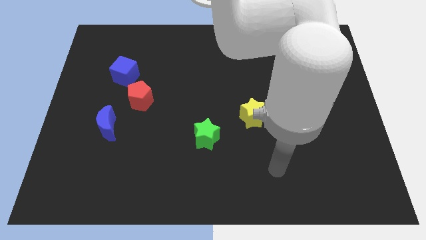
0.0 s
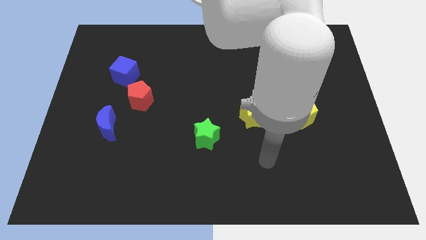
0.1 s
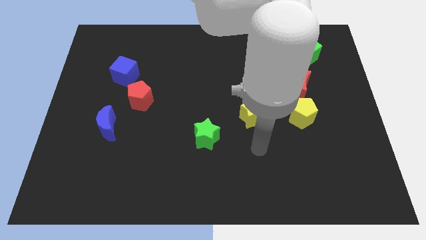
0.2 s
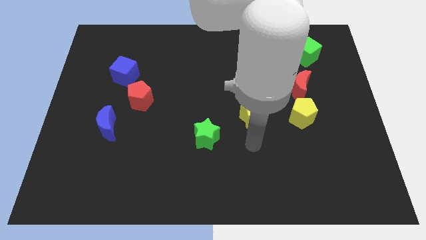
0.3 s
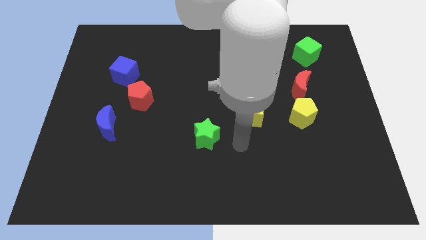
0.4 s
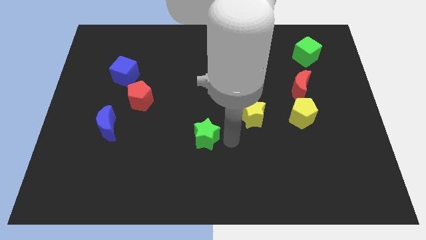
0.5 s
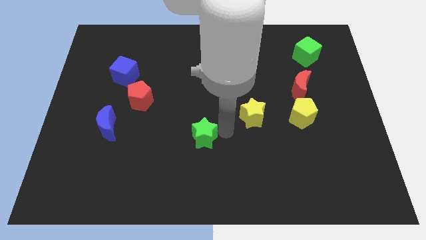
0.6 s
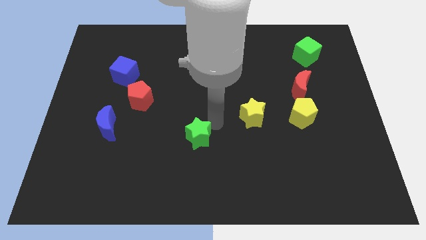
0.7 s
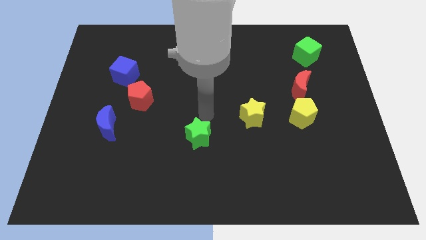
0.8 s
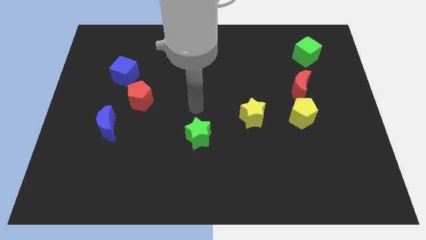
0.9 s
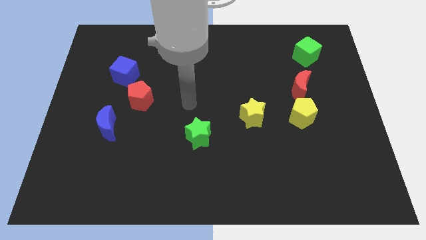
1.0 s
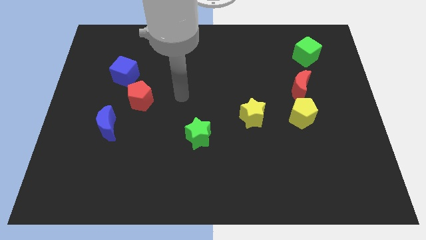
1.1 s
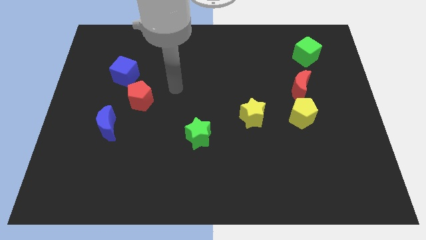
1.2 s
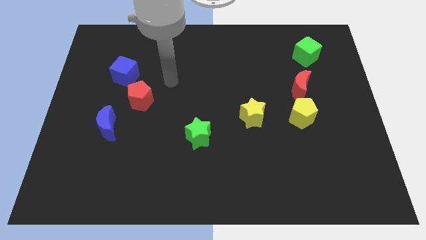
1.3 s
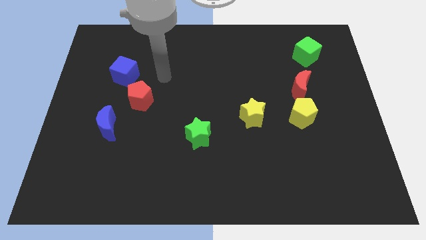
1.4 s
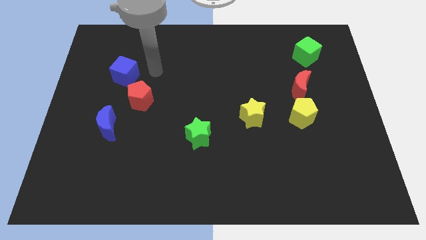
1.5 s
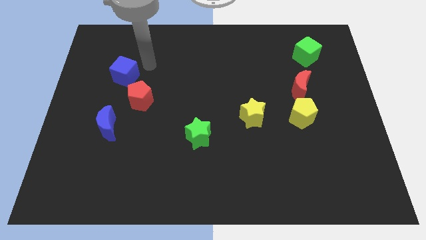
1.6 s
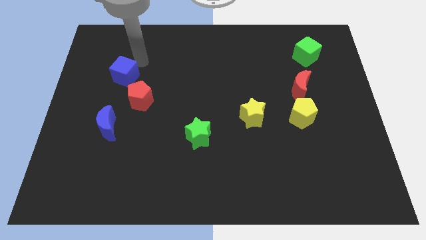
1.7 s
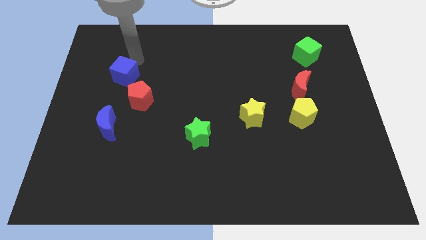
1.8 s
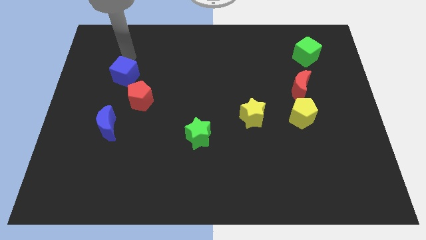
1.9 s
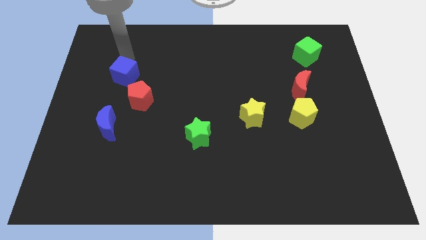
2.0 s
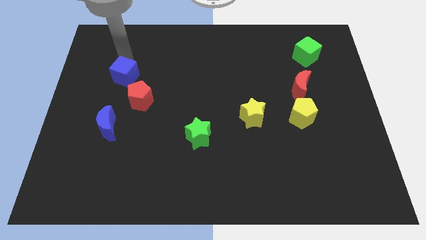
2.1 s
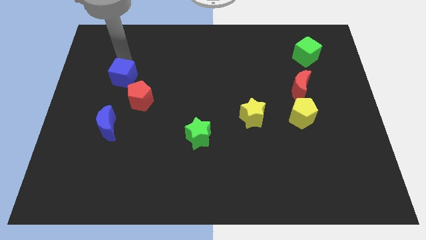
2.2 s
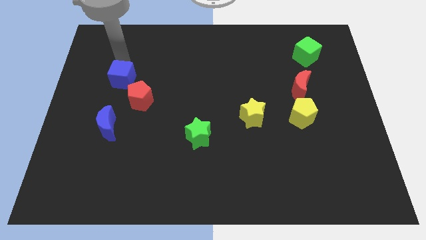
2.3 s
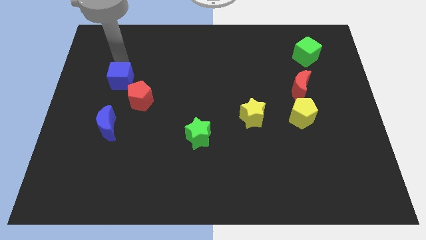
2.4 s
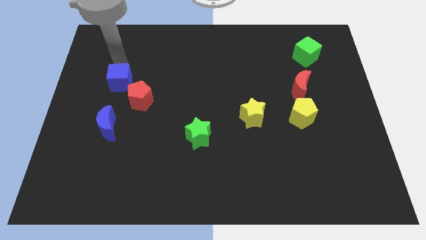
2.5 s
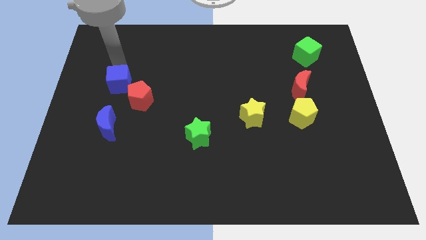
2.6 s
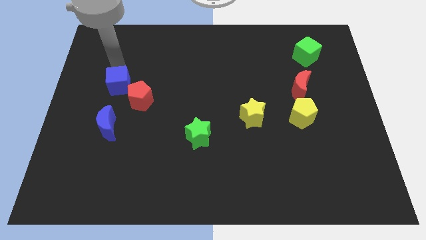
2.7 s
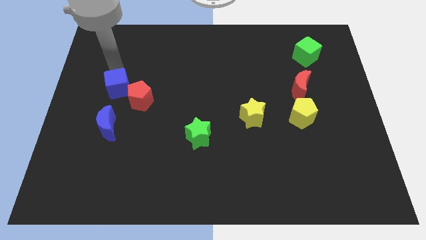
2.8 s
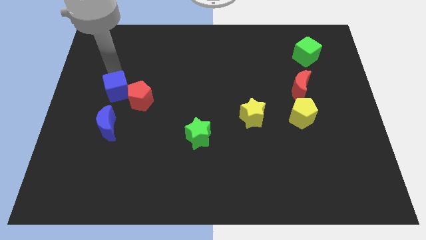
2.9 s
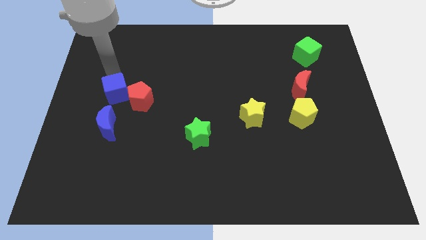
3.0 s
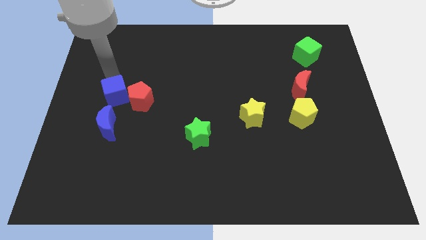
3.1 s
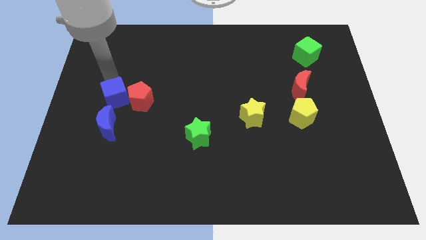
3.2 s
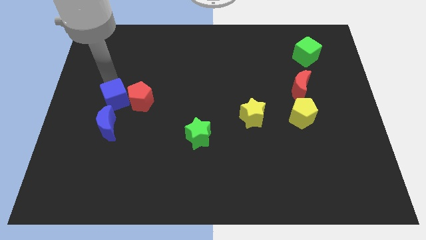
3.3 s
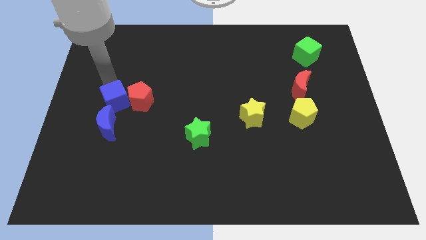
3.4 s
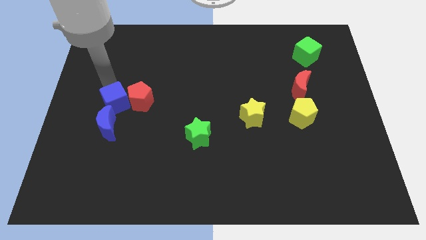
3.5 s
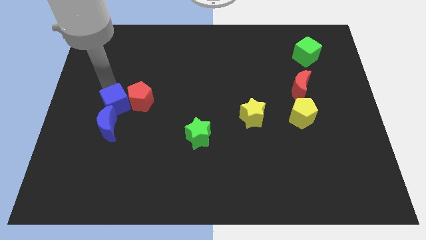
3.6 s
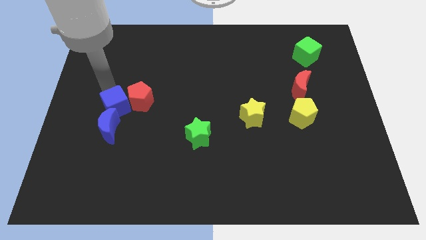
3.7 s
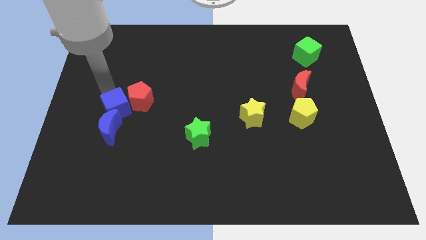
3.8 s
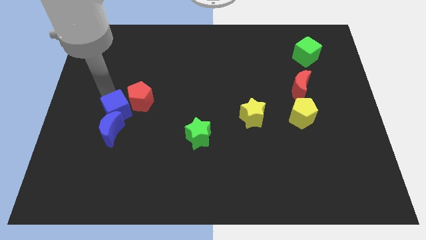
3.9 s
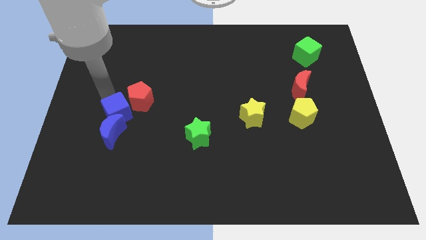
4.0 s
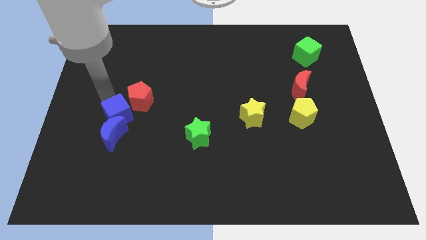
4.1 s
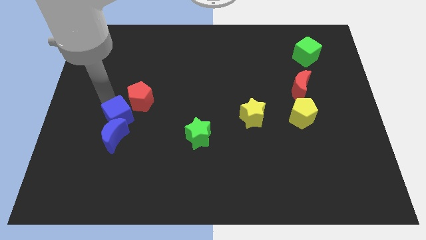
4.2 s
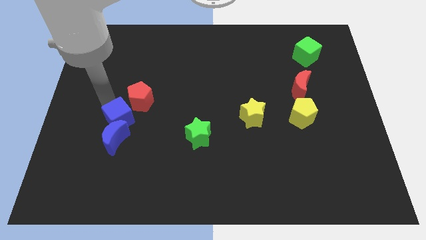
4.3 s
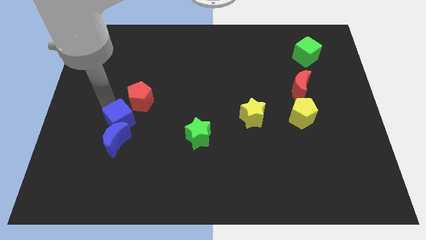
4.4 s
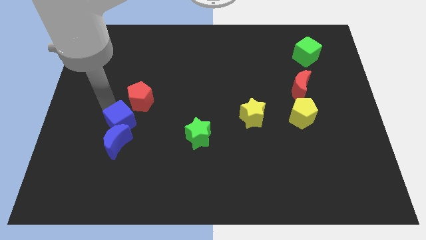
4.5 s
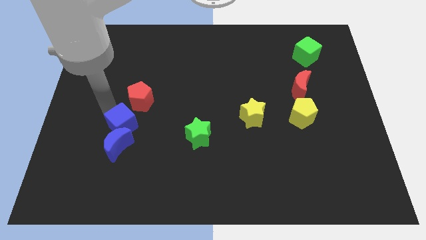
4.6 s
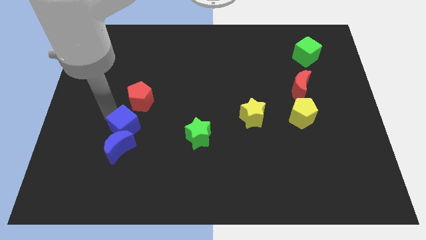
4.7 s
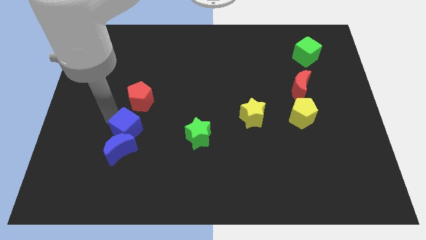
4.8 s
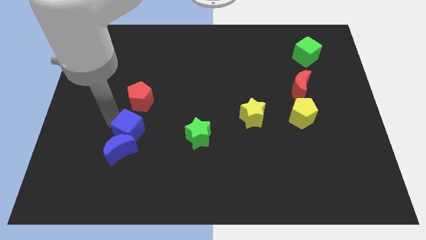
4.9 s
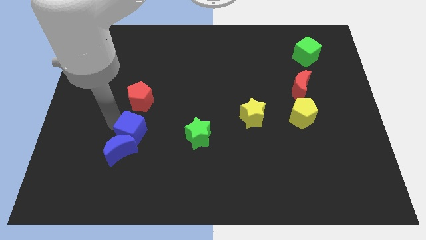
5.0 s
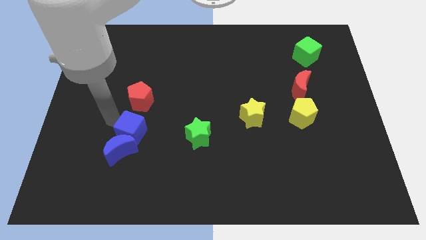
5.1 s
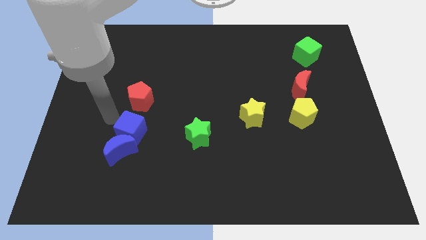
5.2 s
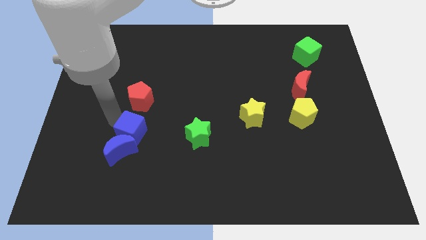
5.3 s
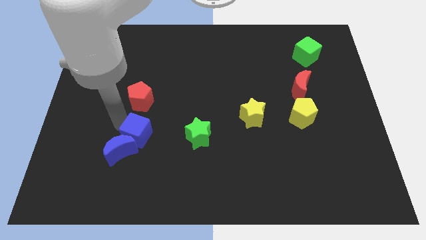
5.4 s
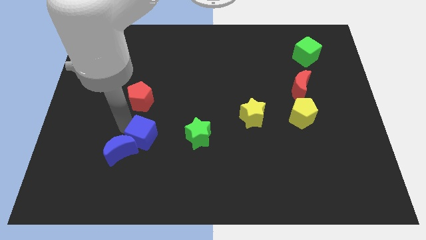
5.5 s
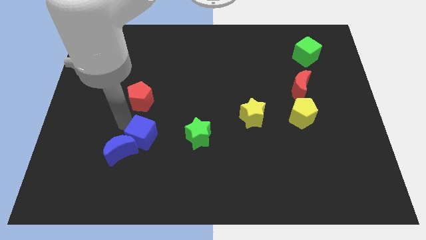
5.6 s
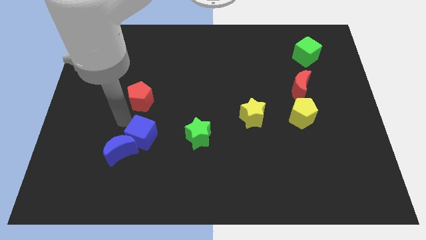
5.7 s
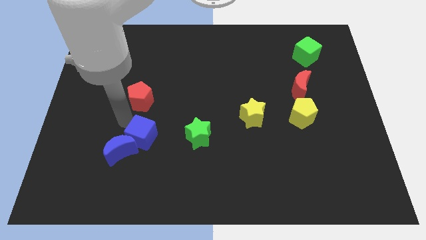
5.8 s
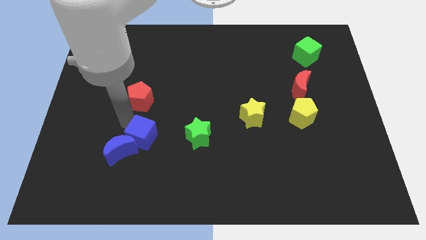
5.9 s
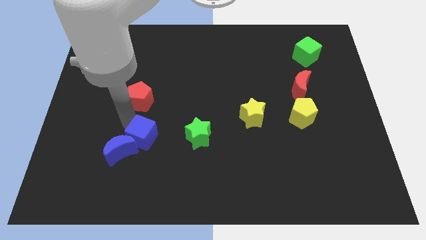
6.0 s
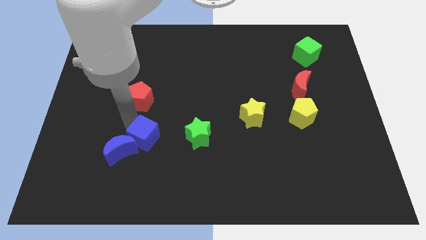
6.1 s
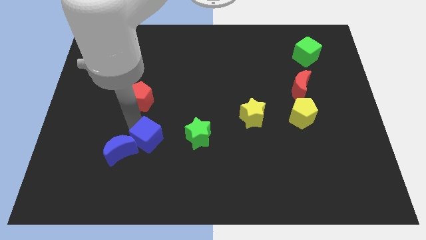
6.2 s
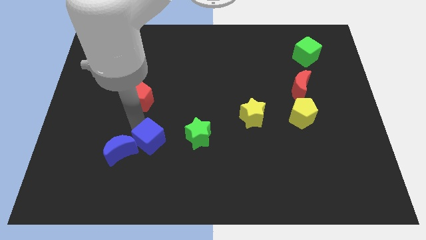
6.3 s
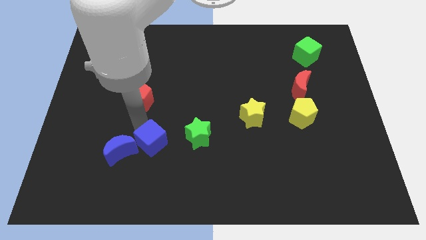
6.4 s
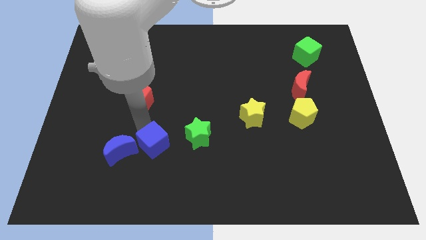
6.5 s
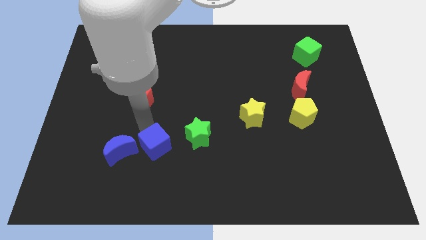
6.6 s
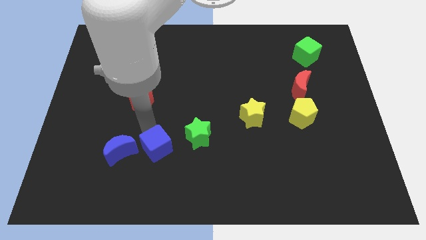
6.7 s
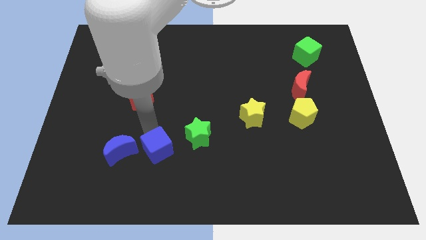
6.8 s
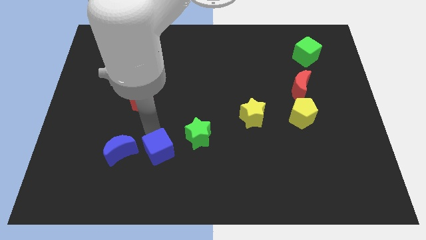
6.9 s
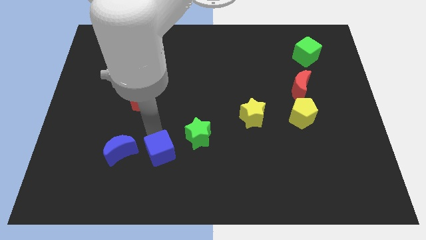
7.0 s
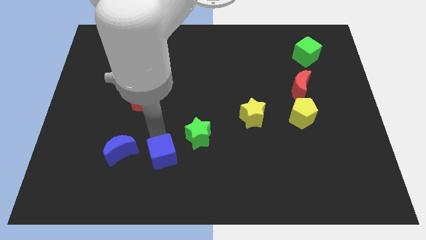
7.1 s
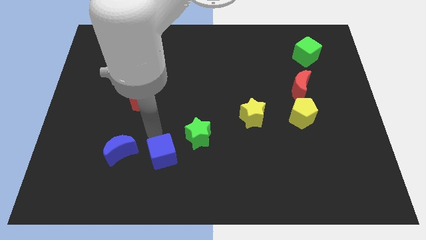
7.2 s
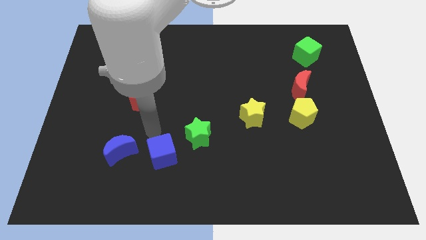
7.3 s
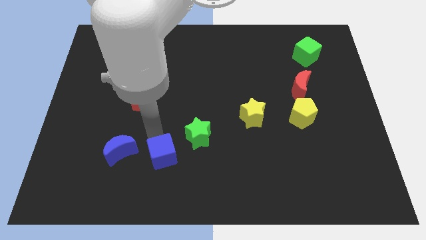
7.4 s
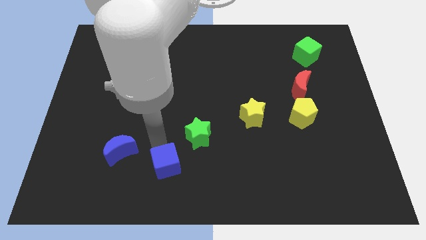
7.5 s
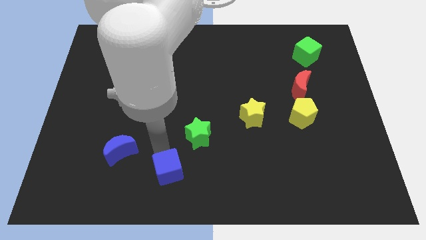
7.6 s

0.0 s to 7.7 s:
slide the blue cube to the bottom side
